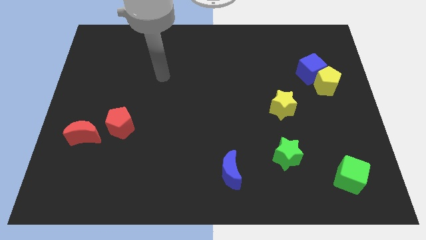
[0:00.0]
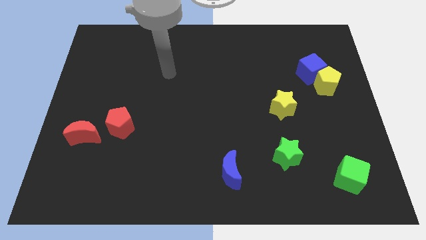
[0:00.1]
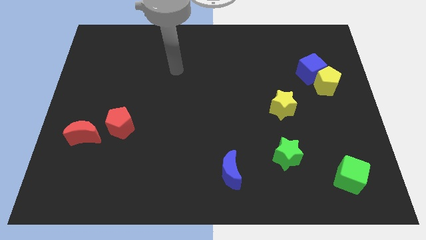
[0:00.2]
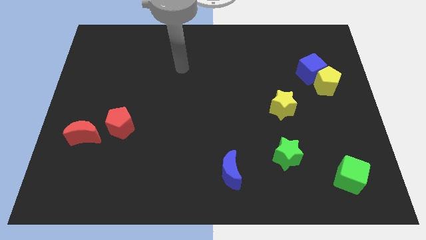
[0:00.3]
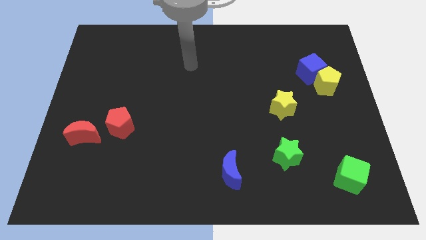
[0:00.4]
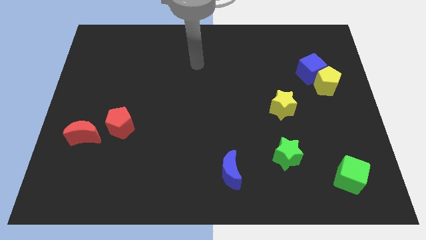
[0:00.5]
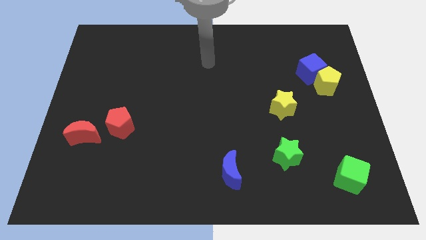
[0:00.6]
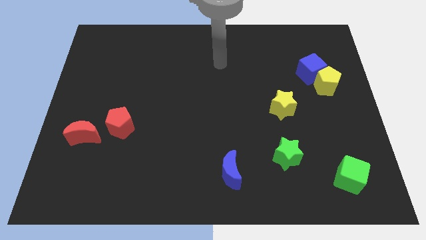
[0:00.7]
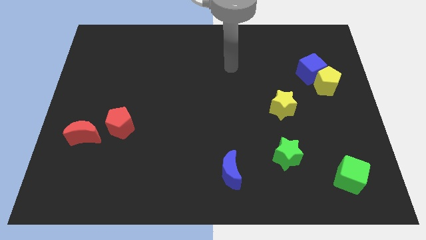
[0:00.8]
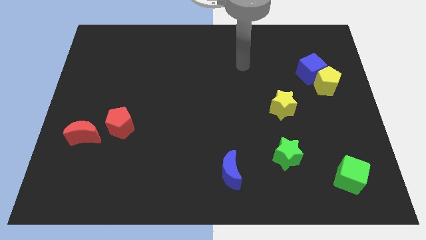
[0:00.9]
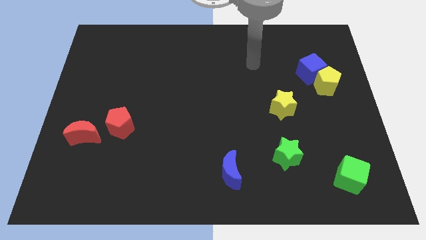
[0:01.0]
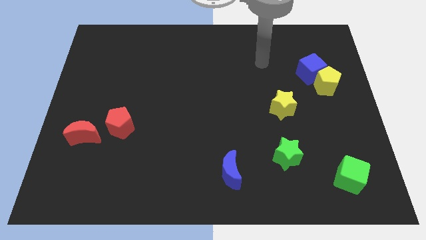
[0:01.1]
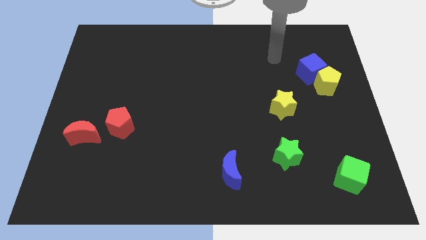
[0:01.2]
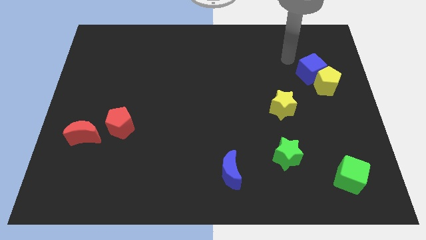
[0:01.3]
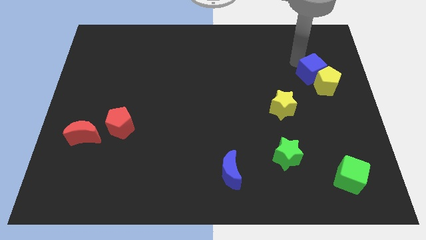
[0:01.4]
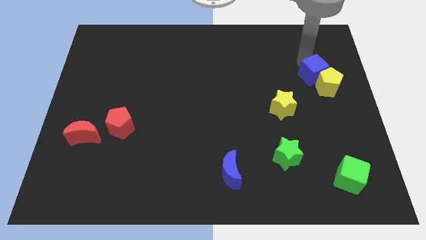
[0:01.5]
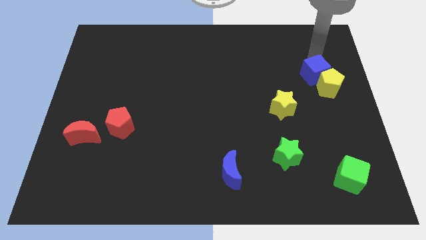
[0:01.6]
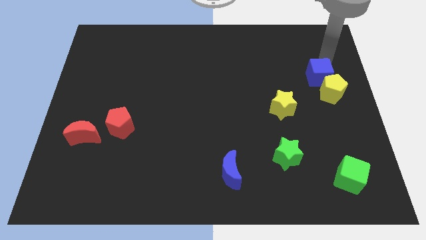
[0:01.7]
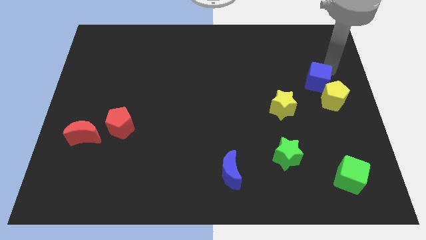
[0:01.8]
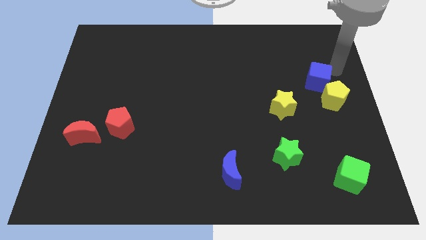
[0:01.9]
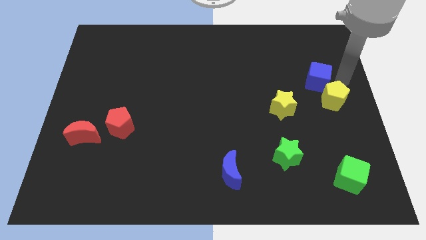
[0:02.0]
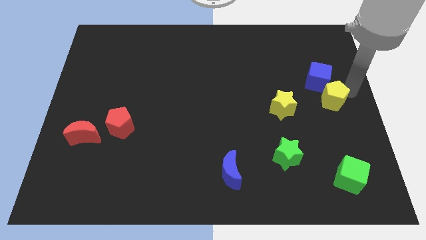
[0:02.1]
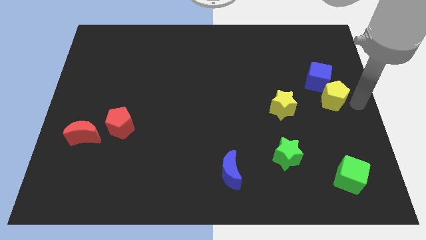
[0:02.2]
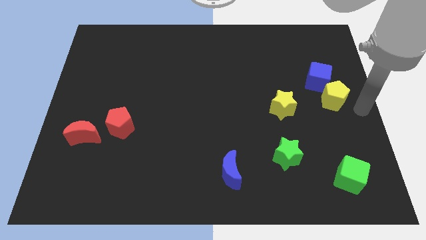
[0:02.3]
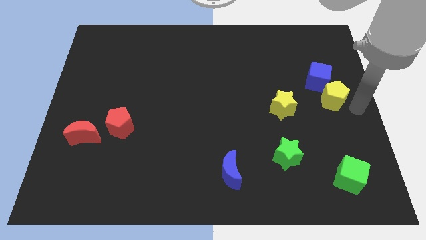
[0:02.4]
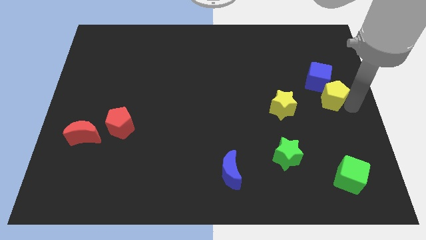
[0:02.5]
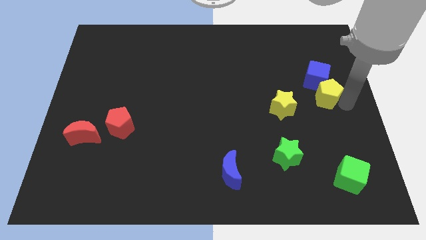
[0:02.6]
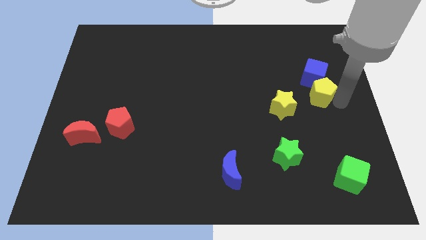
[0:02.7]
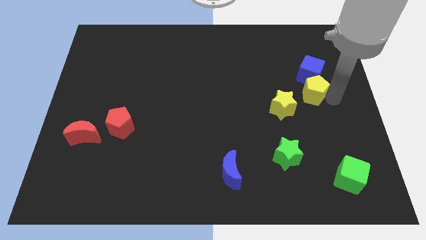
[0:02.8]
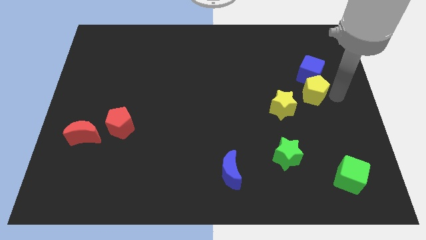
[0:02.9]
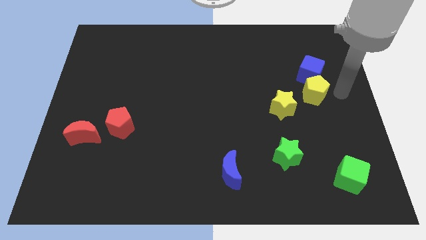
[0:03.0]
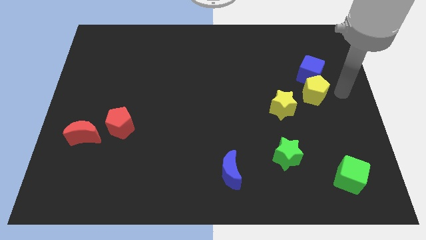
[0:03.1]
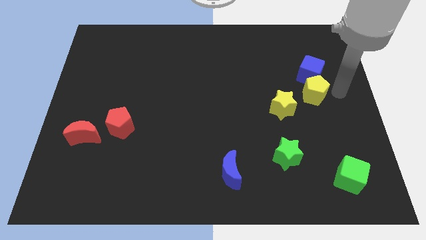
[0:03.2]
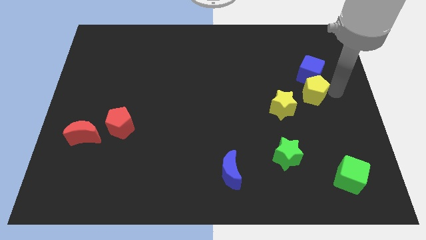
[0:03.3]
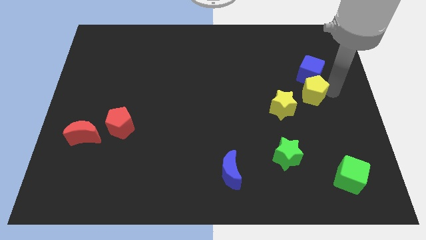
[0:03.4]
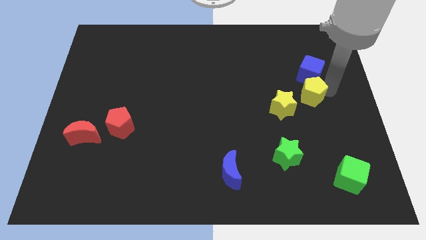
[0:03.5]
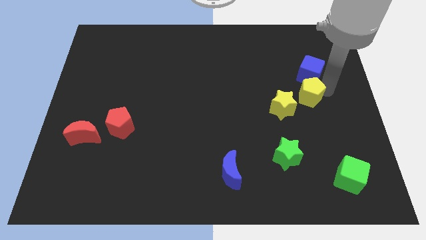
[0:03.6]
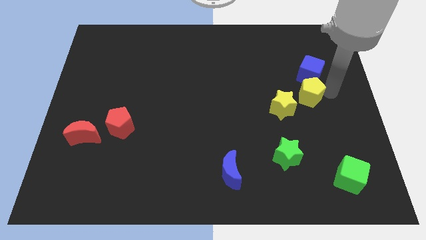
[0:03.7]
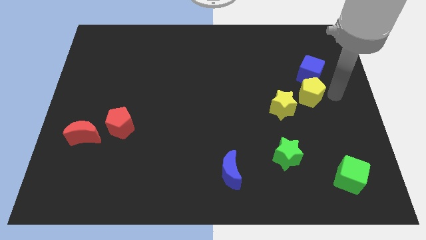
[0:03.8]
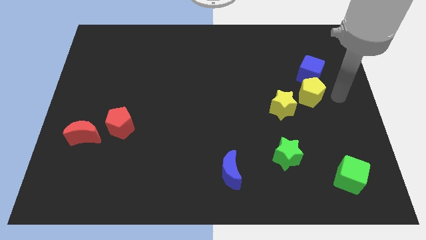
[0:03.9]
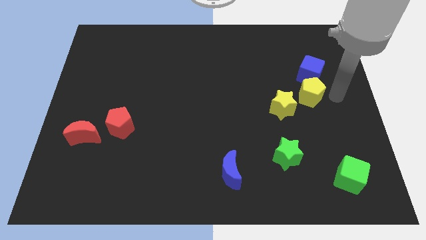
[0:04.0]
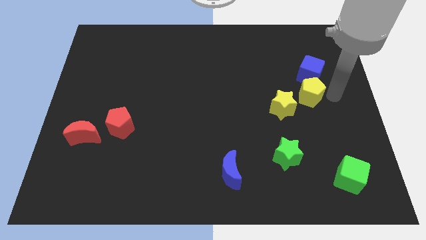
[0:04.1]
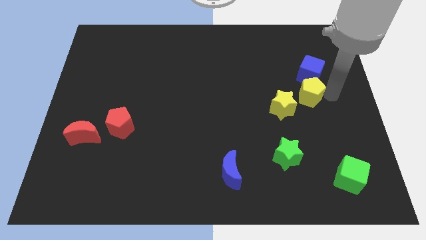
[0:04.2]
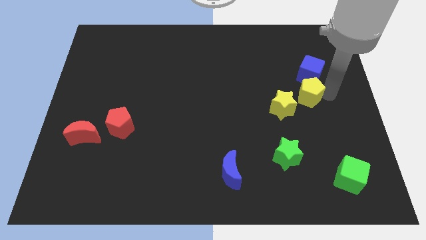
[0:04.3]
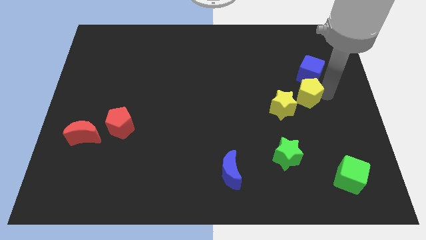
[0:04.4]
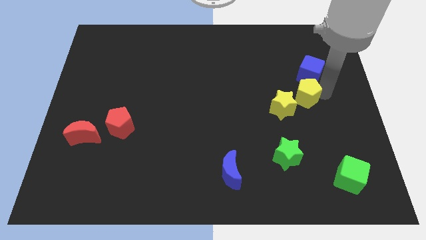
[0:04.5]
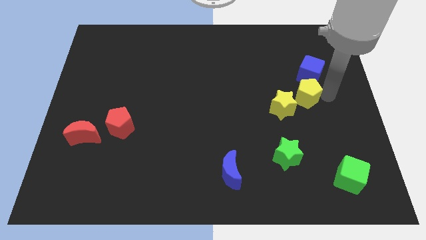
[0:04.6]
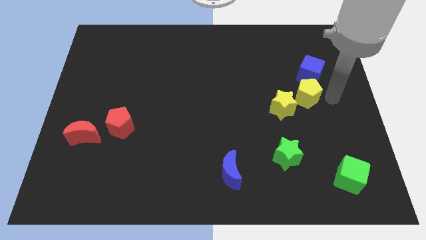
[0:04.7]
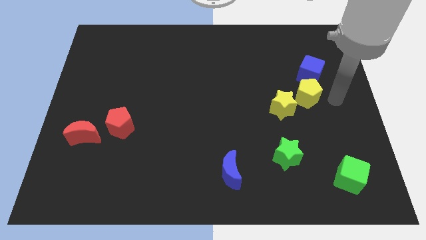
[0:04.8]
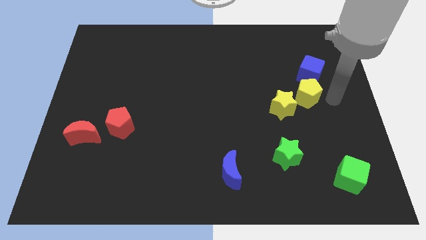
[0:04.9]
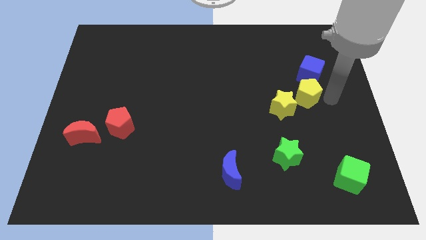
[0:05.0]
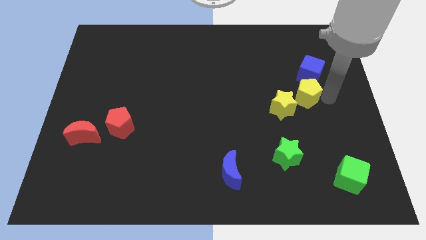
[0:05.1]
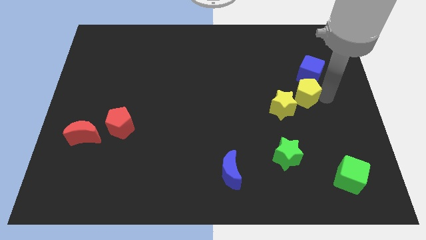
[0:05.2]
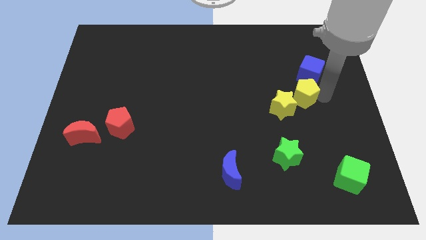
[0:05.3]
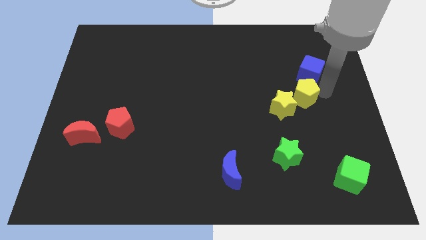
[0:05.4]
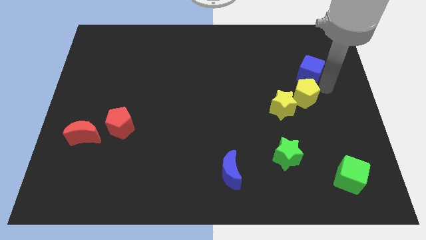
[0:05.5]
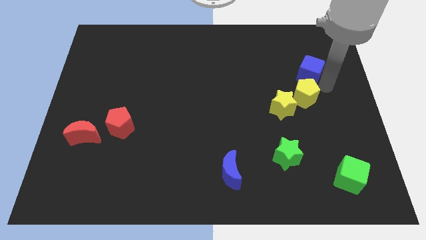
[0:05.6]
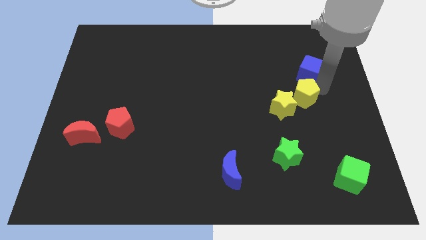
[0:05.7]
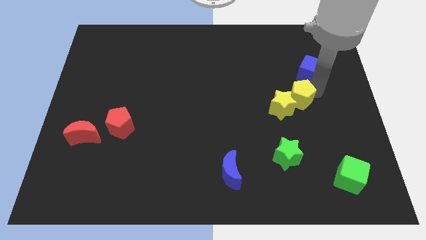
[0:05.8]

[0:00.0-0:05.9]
move the yellow pentagon close to the yellow star

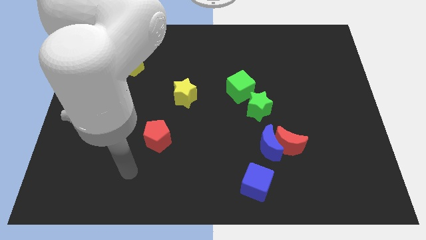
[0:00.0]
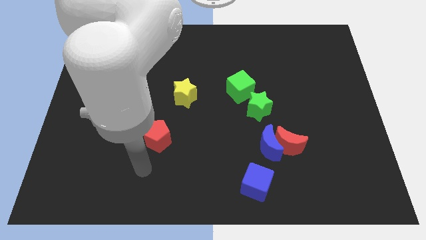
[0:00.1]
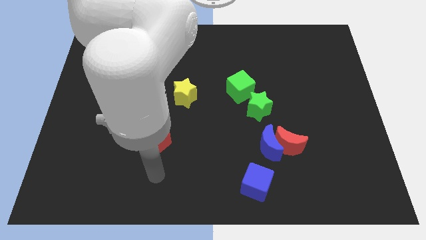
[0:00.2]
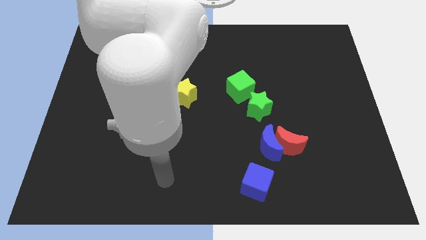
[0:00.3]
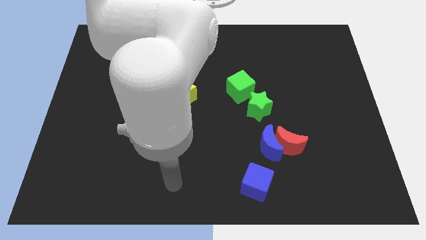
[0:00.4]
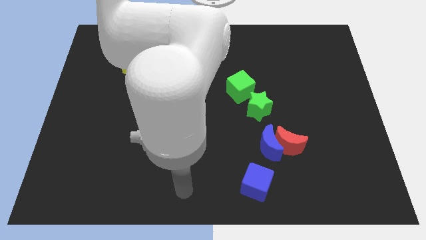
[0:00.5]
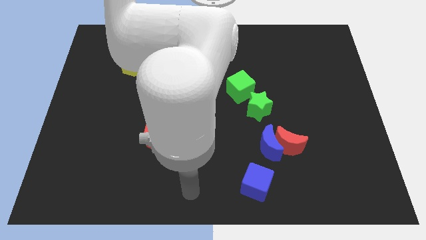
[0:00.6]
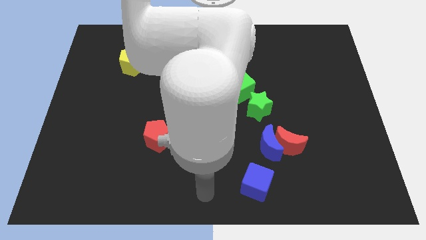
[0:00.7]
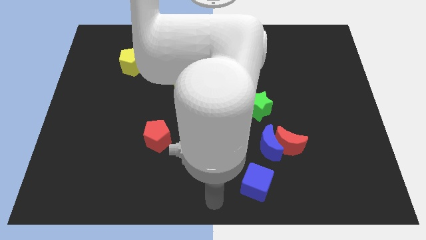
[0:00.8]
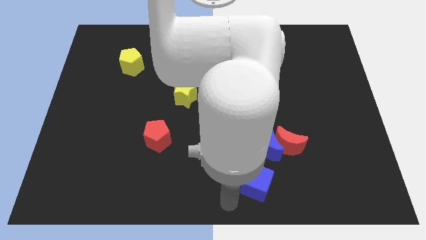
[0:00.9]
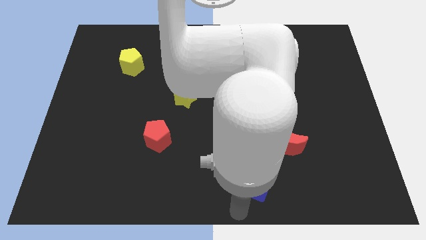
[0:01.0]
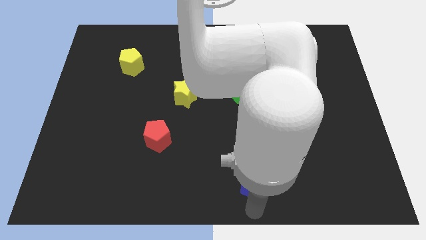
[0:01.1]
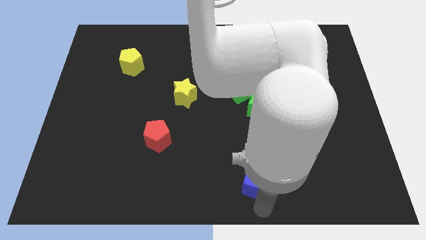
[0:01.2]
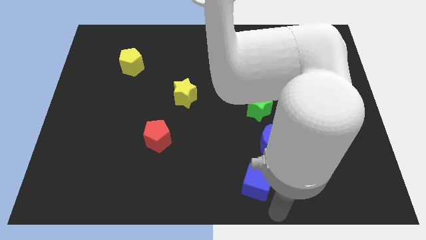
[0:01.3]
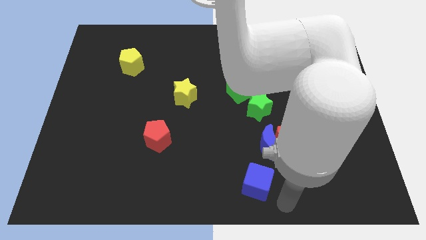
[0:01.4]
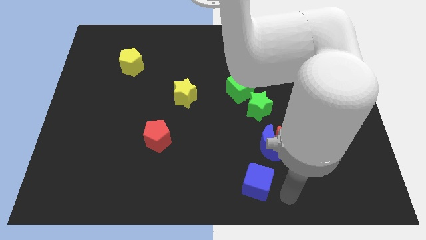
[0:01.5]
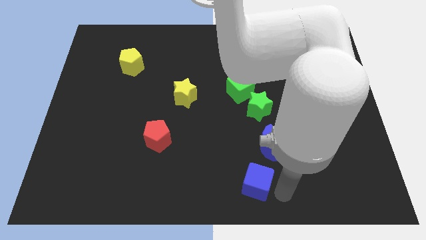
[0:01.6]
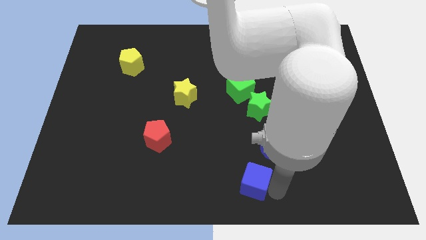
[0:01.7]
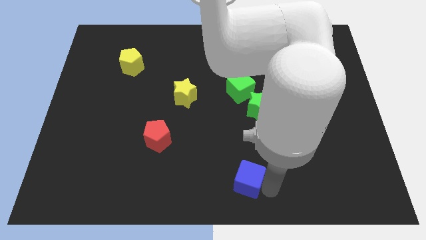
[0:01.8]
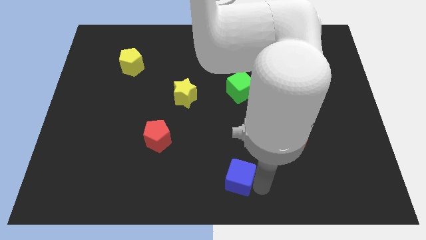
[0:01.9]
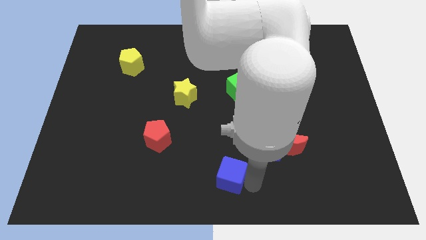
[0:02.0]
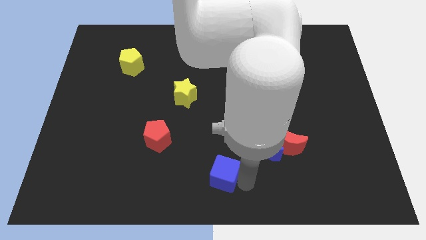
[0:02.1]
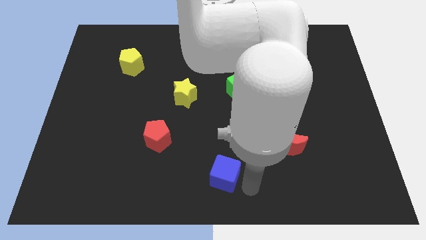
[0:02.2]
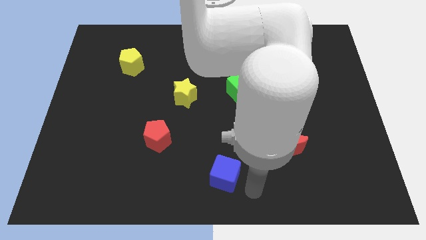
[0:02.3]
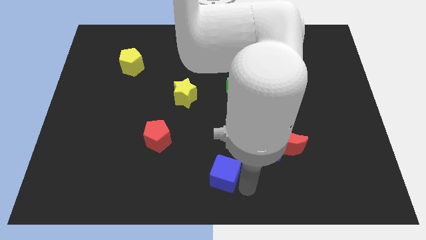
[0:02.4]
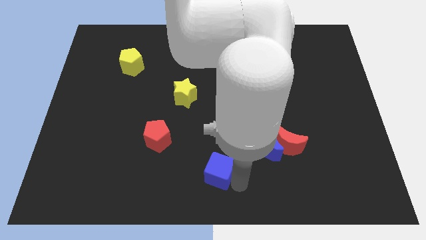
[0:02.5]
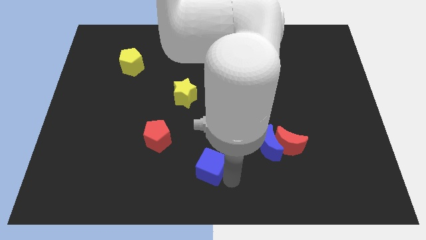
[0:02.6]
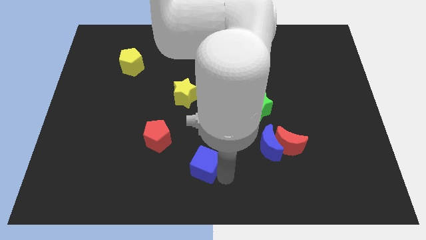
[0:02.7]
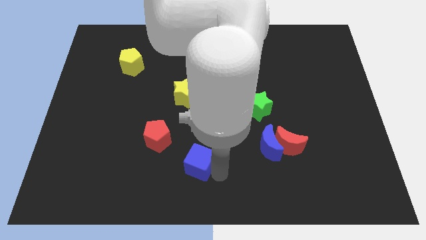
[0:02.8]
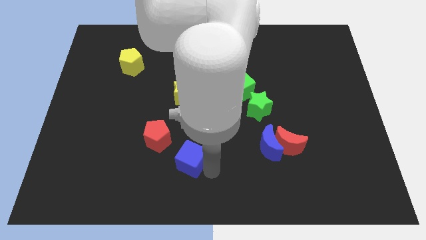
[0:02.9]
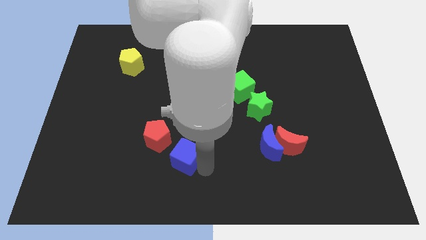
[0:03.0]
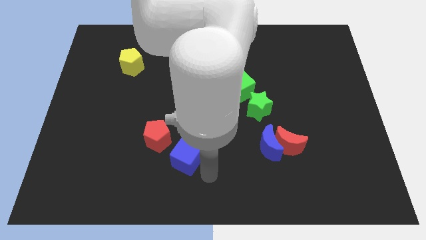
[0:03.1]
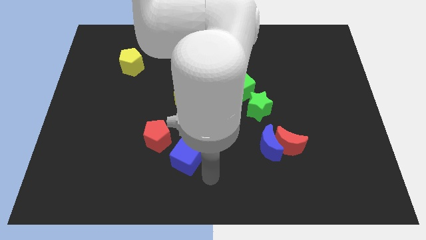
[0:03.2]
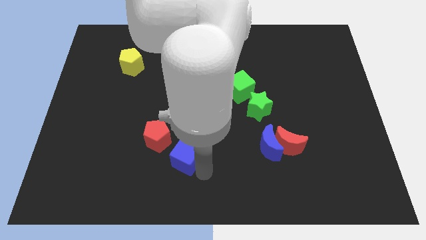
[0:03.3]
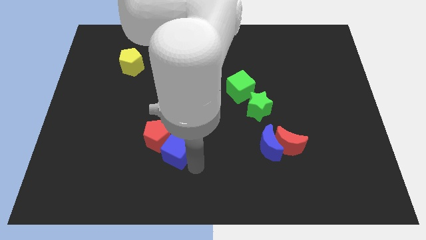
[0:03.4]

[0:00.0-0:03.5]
push the blue cube towards the red pentagon
